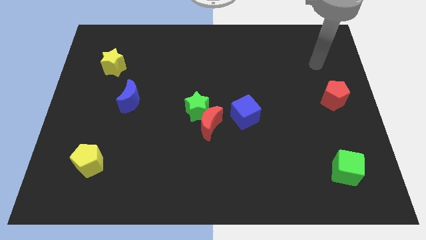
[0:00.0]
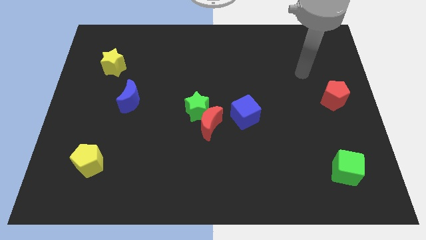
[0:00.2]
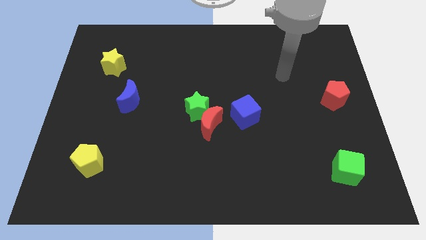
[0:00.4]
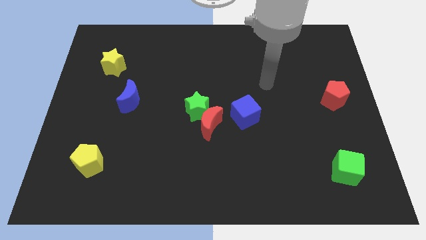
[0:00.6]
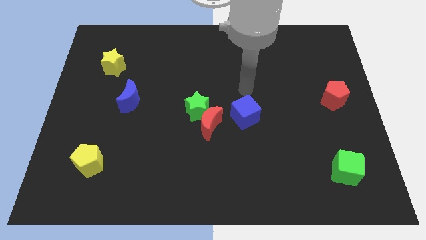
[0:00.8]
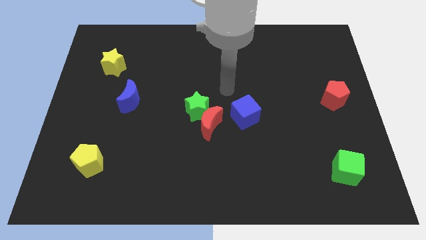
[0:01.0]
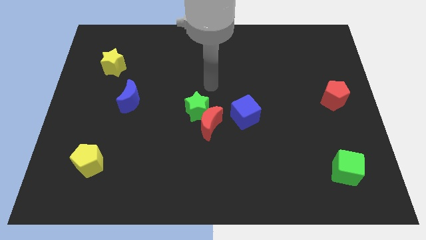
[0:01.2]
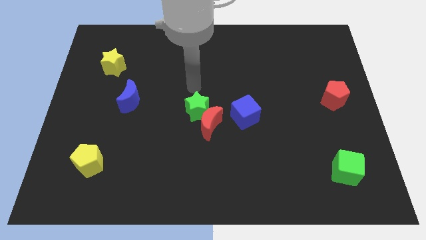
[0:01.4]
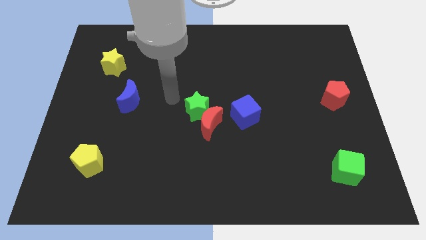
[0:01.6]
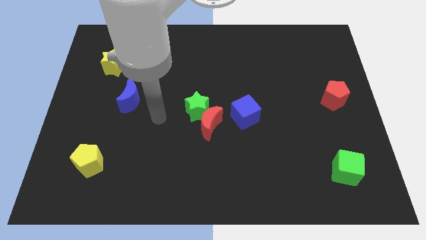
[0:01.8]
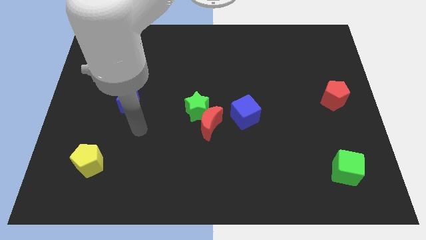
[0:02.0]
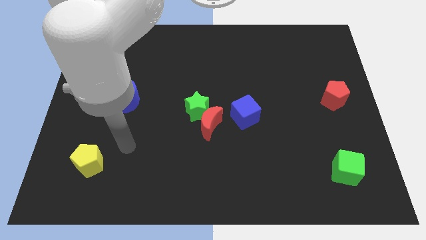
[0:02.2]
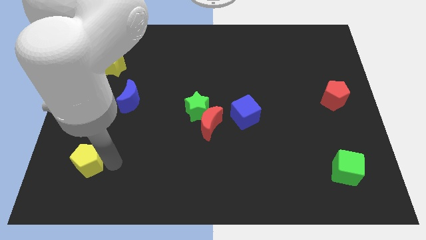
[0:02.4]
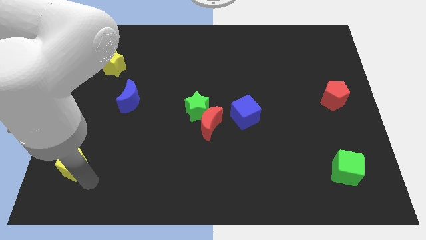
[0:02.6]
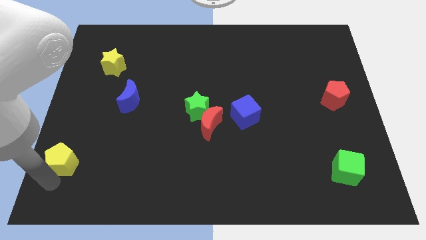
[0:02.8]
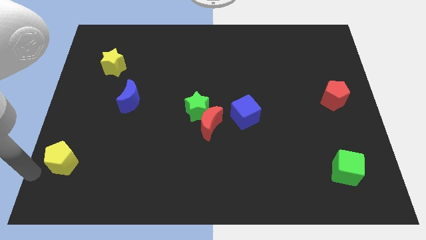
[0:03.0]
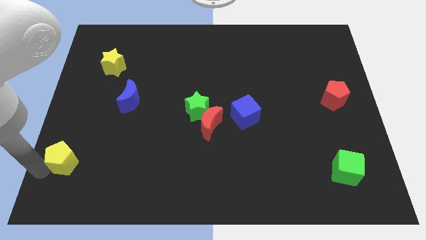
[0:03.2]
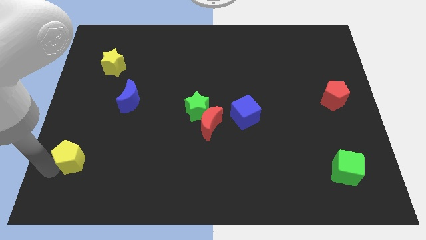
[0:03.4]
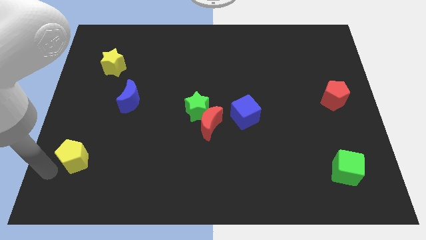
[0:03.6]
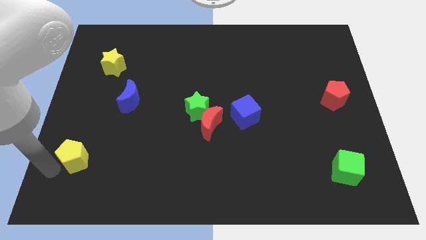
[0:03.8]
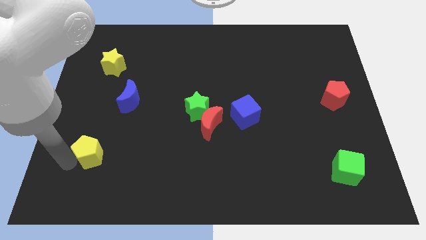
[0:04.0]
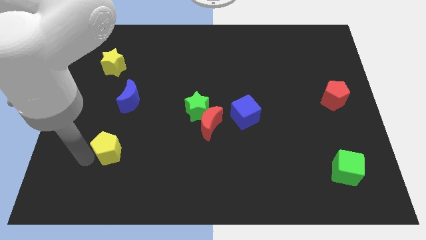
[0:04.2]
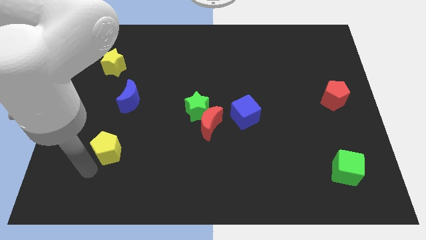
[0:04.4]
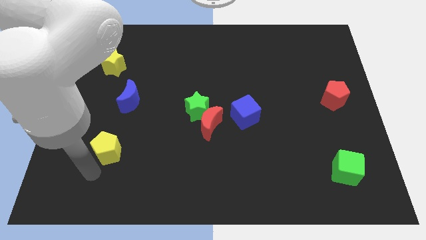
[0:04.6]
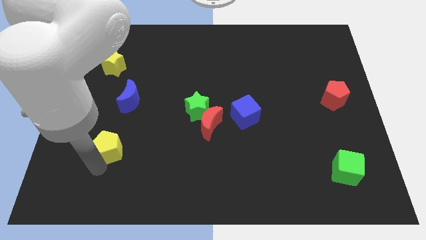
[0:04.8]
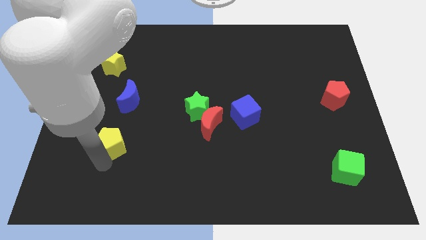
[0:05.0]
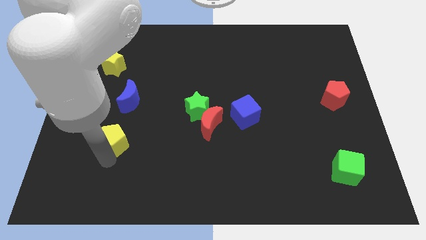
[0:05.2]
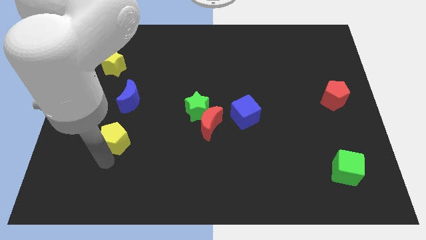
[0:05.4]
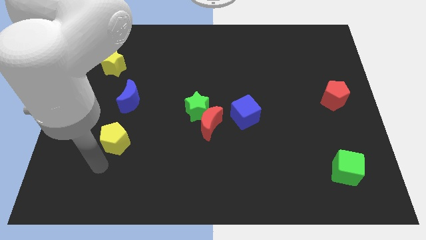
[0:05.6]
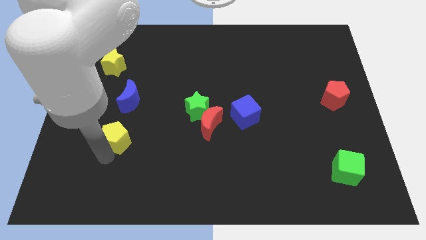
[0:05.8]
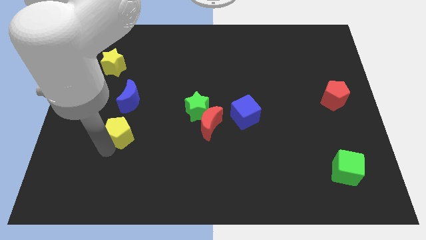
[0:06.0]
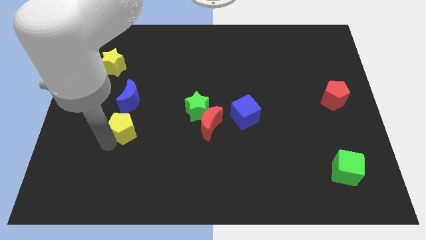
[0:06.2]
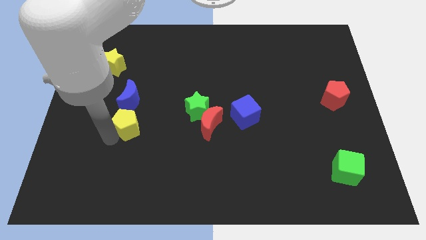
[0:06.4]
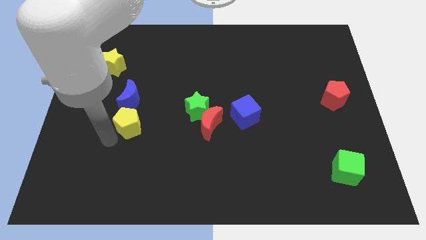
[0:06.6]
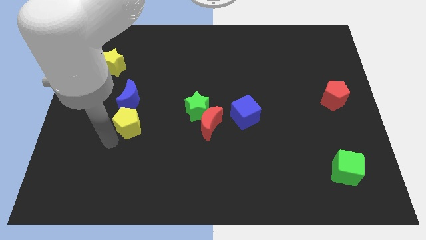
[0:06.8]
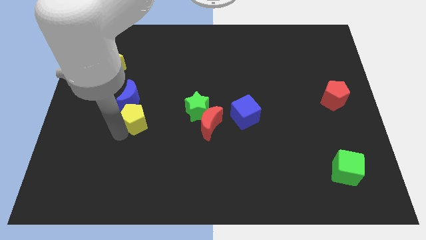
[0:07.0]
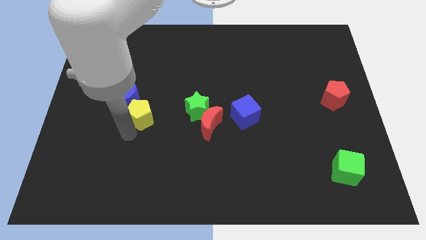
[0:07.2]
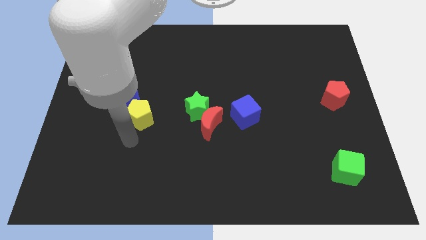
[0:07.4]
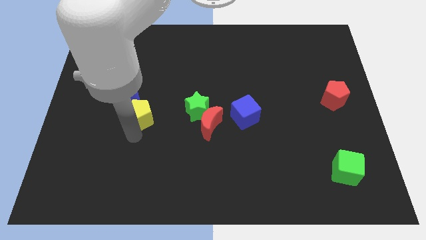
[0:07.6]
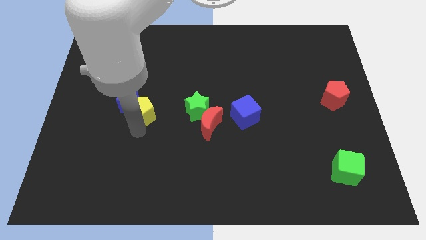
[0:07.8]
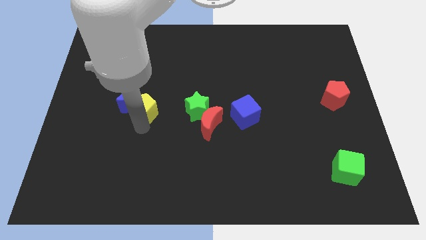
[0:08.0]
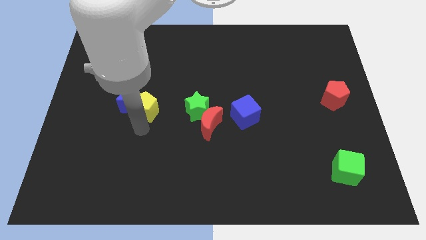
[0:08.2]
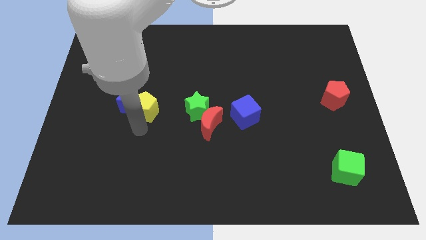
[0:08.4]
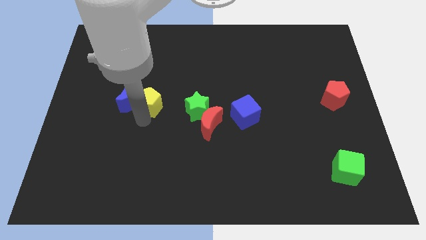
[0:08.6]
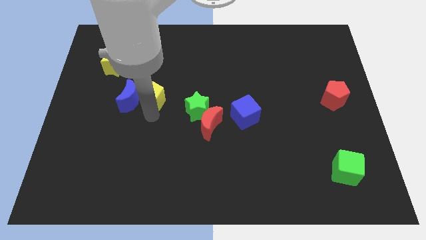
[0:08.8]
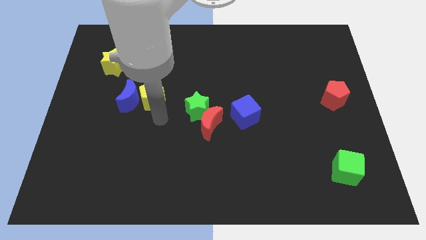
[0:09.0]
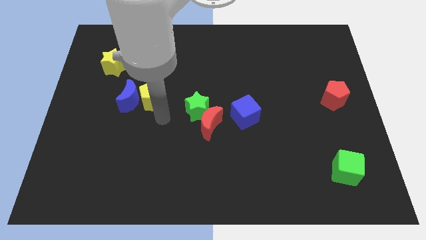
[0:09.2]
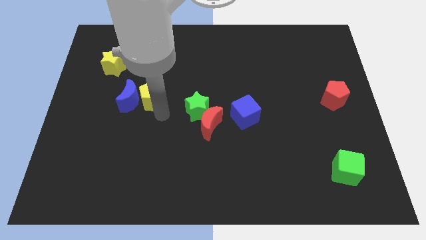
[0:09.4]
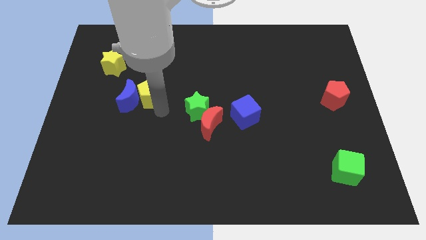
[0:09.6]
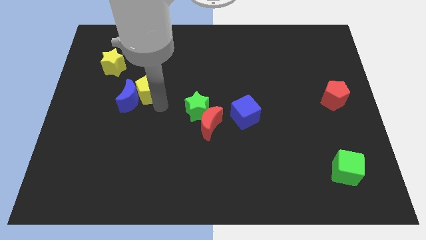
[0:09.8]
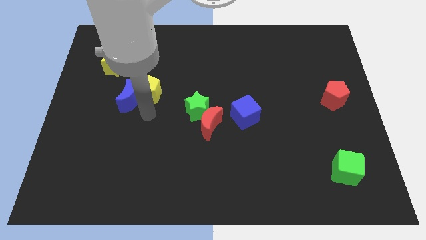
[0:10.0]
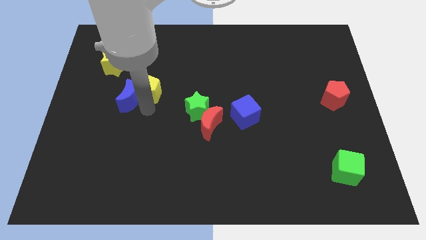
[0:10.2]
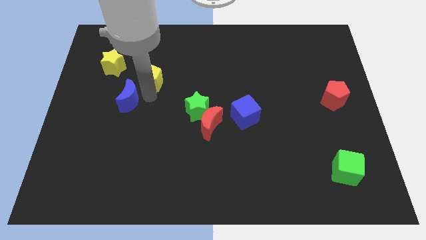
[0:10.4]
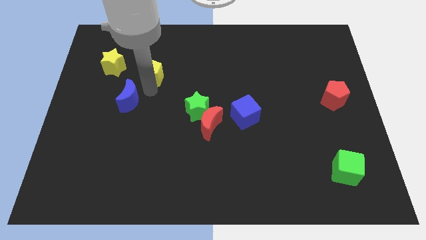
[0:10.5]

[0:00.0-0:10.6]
put the yellow pentagon right of the yellow star

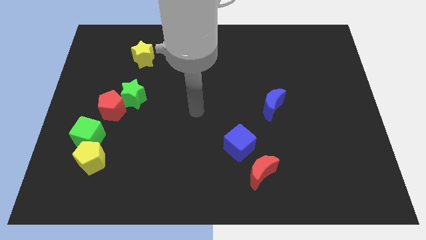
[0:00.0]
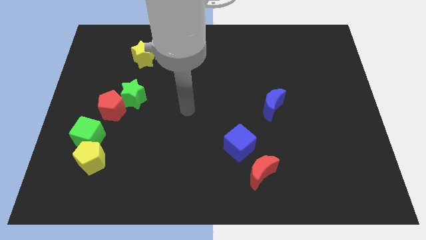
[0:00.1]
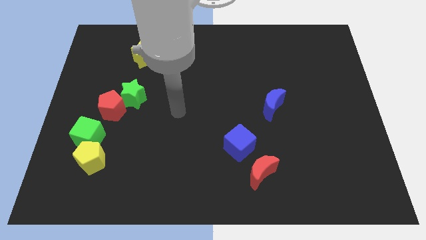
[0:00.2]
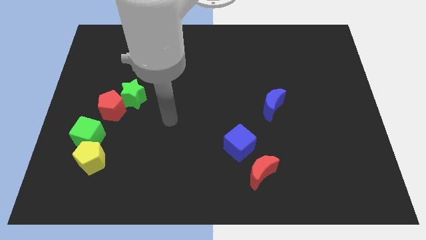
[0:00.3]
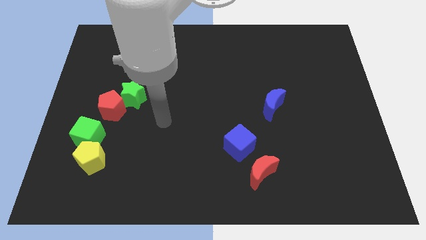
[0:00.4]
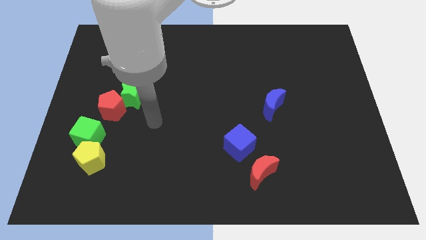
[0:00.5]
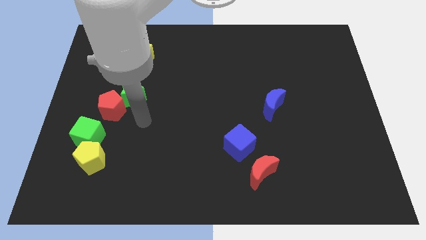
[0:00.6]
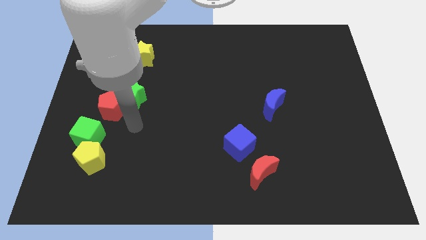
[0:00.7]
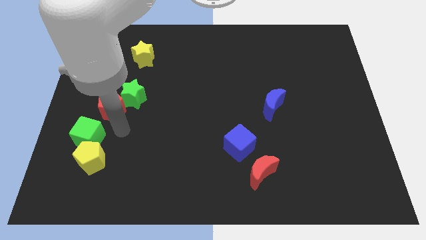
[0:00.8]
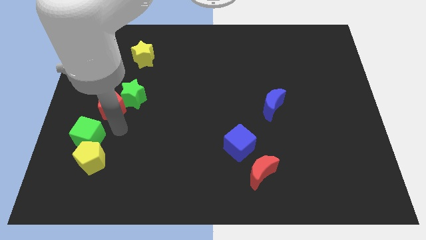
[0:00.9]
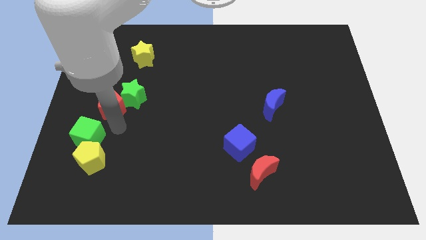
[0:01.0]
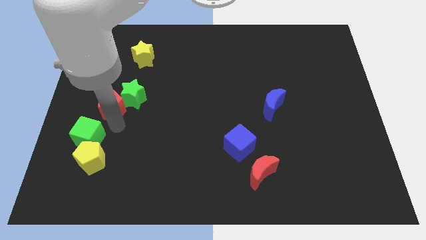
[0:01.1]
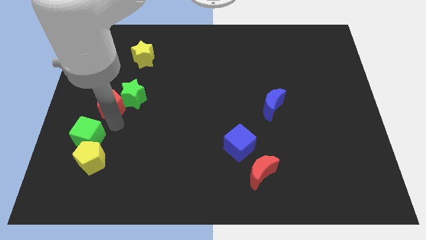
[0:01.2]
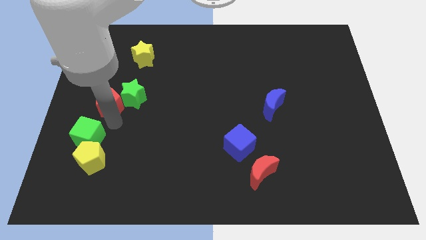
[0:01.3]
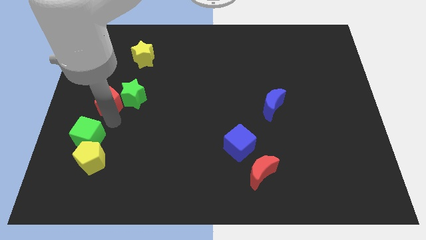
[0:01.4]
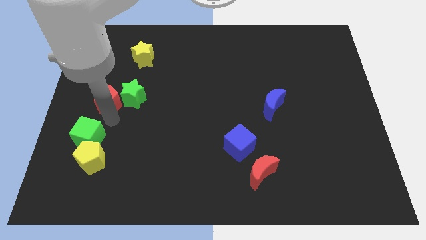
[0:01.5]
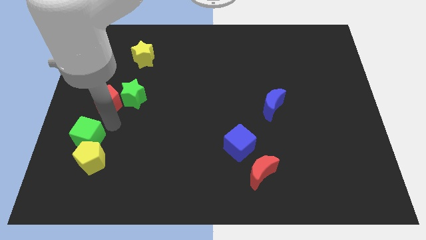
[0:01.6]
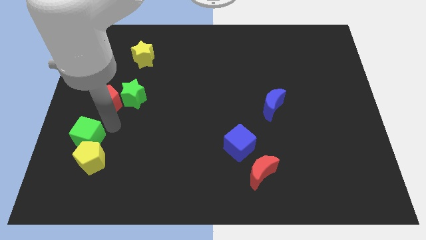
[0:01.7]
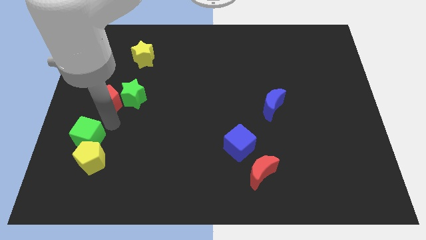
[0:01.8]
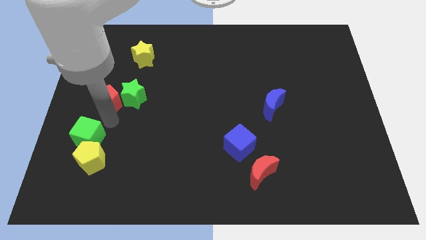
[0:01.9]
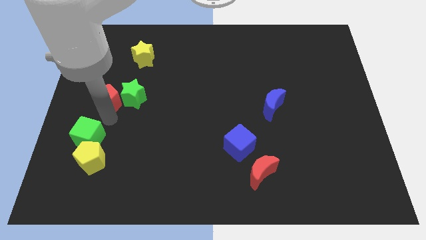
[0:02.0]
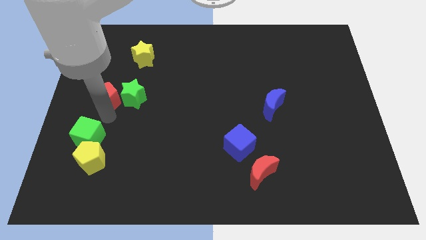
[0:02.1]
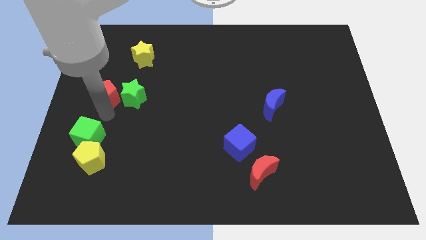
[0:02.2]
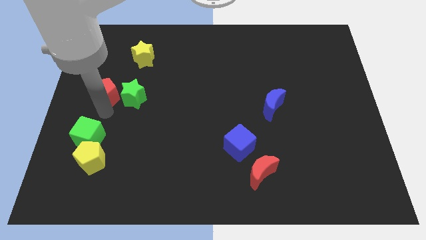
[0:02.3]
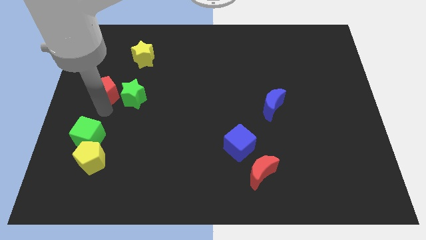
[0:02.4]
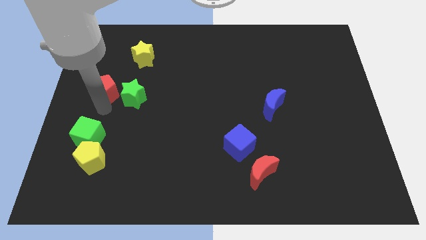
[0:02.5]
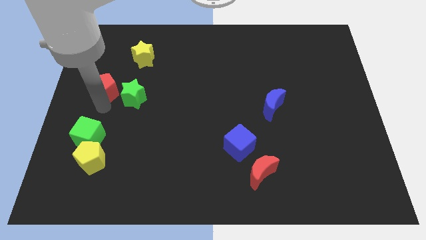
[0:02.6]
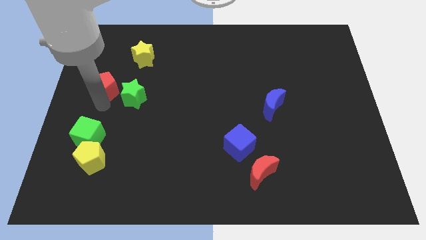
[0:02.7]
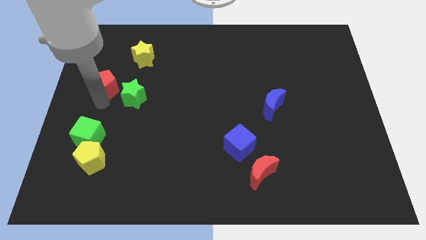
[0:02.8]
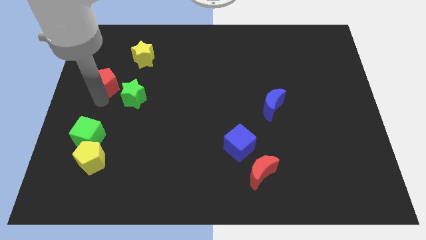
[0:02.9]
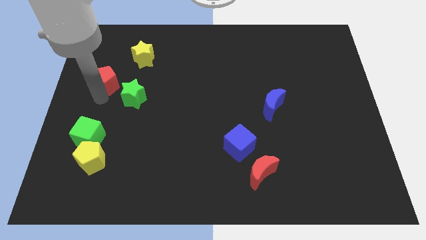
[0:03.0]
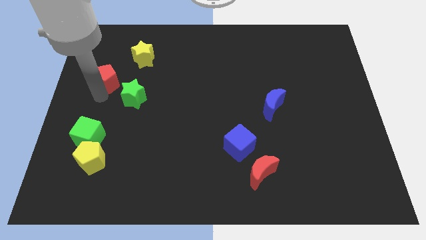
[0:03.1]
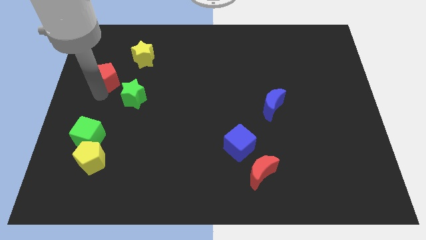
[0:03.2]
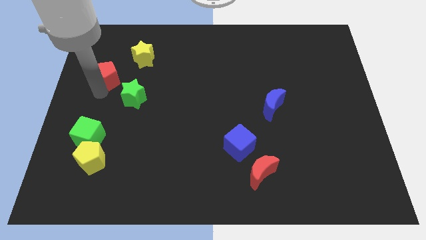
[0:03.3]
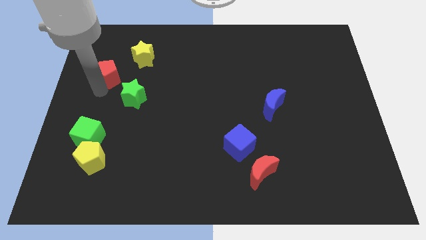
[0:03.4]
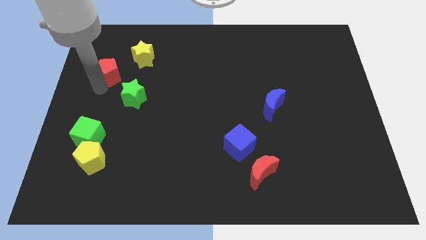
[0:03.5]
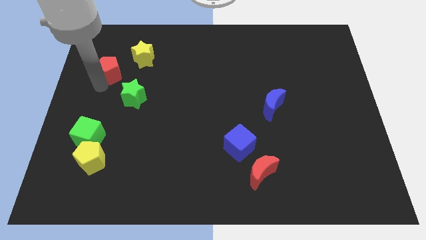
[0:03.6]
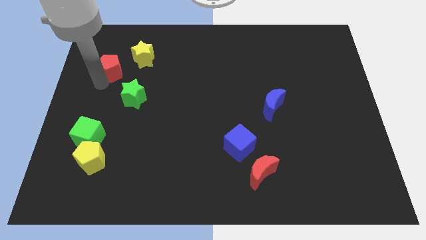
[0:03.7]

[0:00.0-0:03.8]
move the red pentagon to the left side of the yellow star
